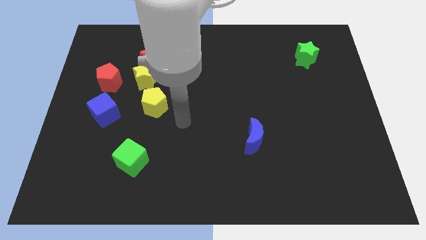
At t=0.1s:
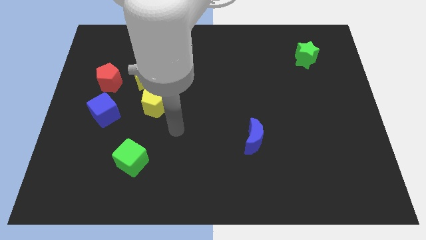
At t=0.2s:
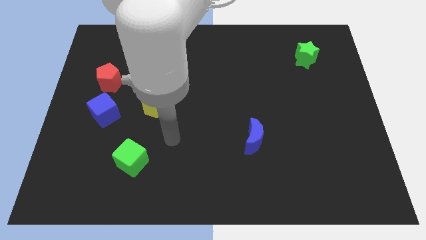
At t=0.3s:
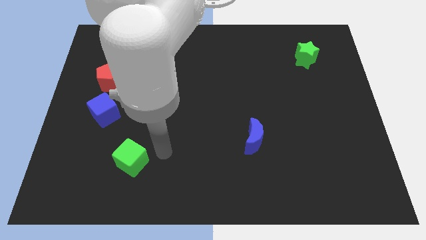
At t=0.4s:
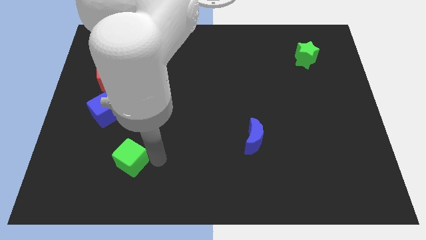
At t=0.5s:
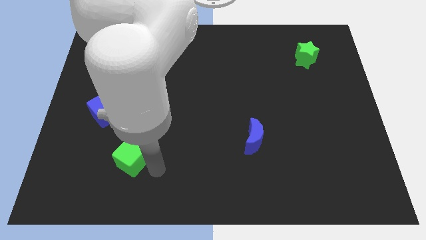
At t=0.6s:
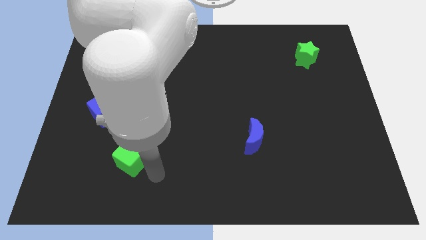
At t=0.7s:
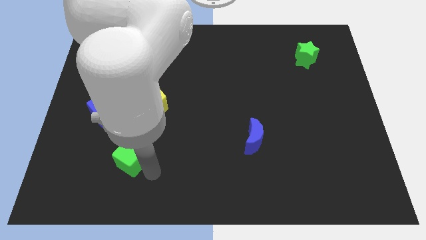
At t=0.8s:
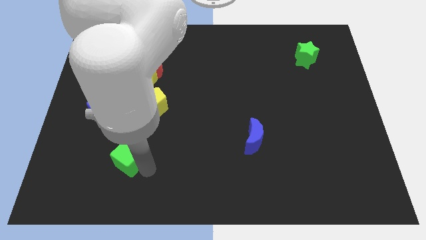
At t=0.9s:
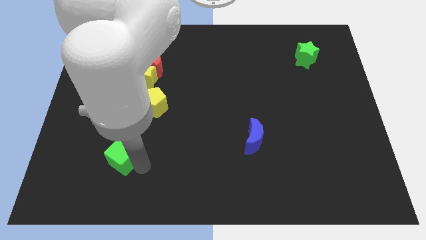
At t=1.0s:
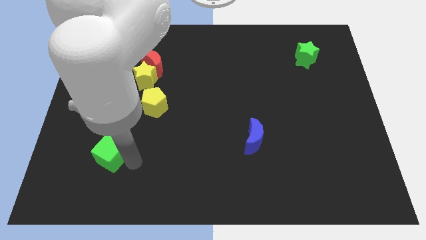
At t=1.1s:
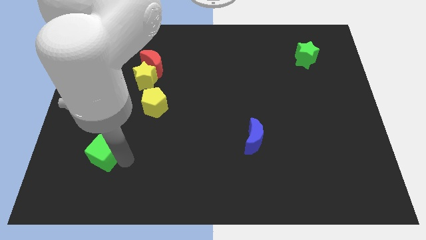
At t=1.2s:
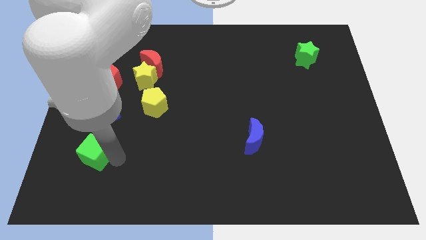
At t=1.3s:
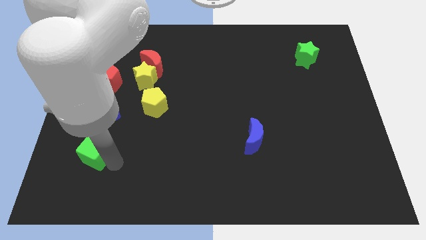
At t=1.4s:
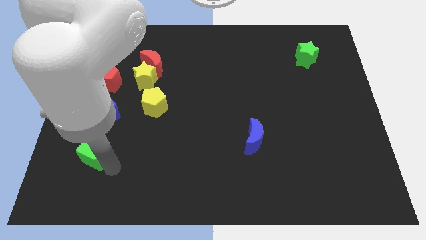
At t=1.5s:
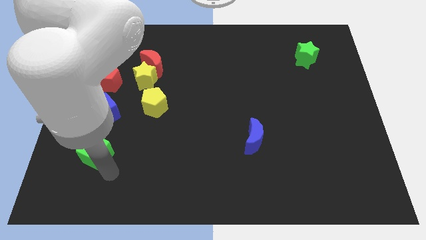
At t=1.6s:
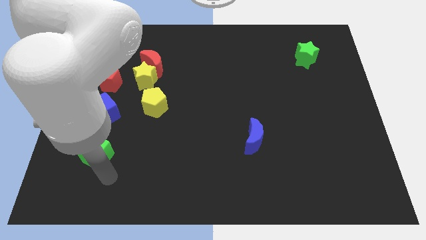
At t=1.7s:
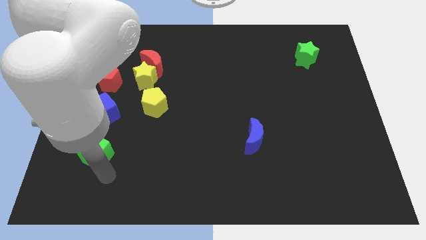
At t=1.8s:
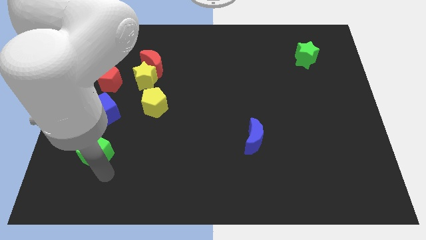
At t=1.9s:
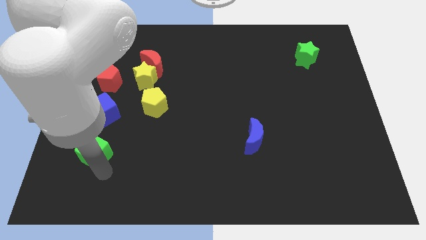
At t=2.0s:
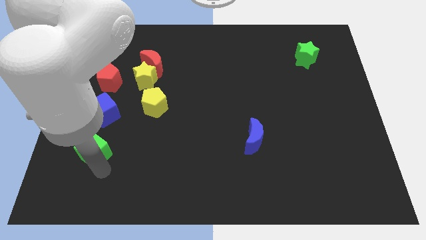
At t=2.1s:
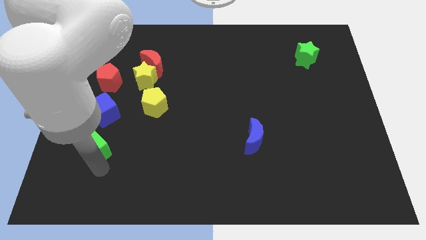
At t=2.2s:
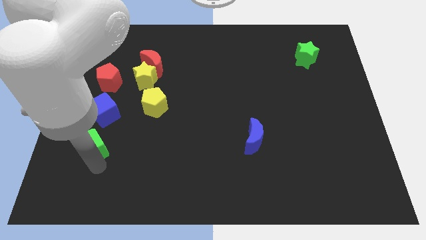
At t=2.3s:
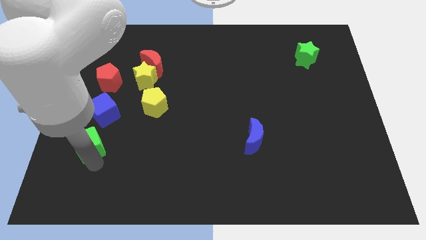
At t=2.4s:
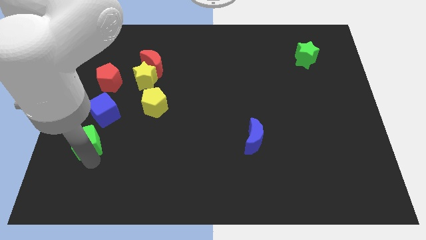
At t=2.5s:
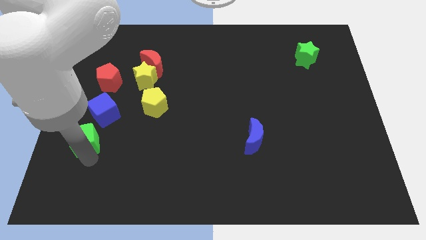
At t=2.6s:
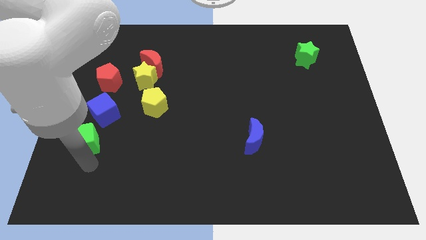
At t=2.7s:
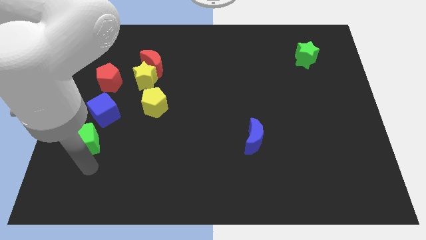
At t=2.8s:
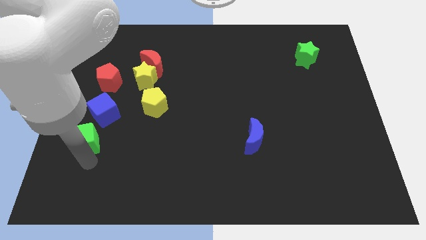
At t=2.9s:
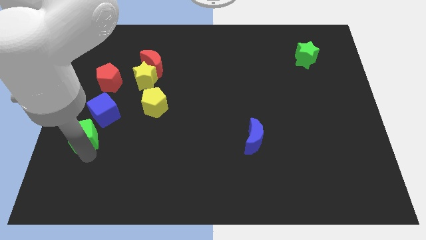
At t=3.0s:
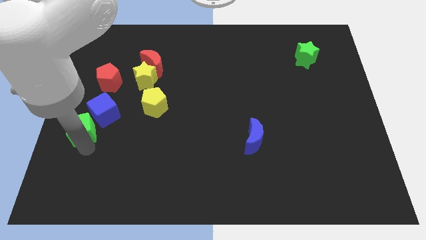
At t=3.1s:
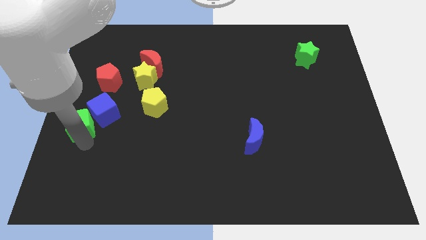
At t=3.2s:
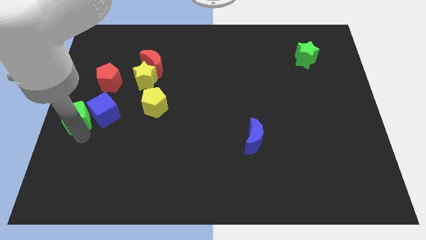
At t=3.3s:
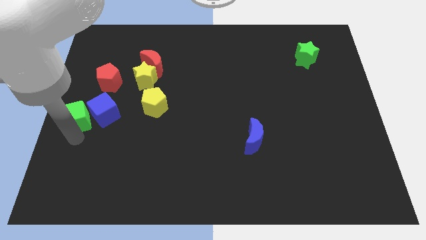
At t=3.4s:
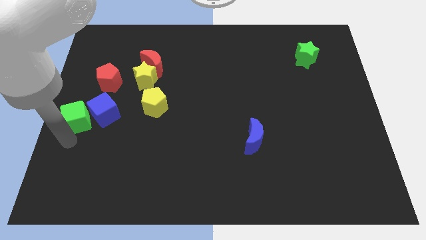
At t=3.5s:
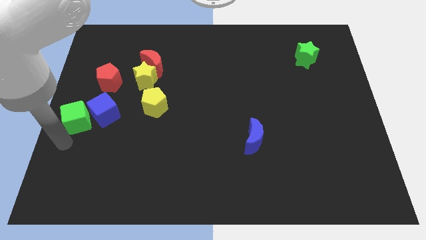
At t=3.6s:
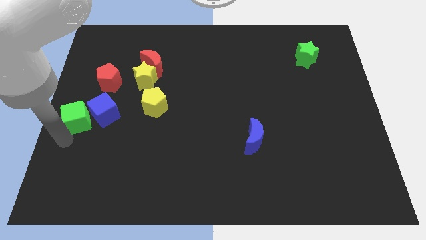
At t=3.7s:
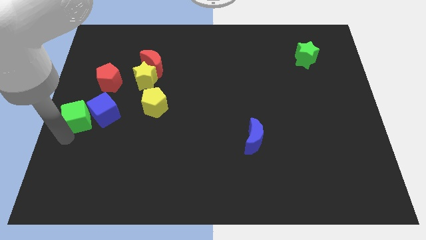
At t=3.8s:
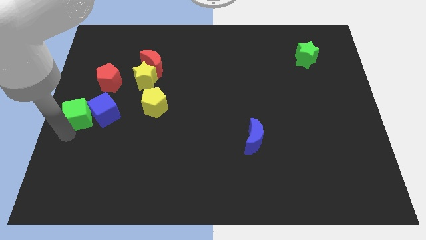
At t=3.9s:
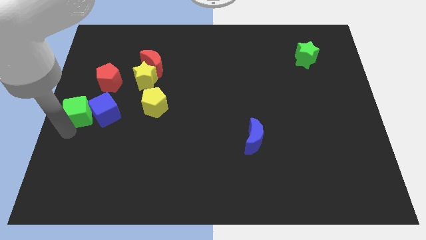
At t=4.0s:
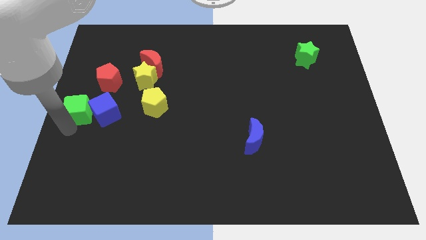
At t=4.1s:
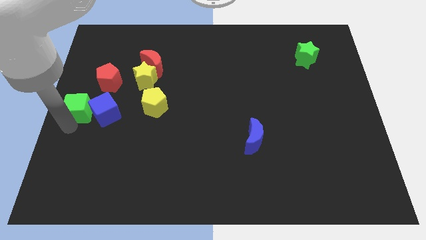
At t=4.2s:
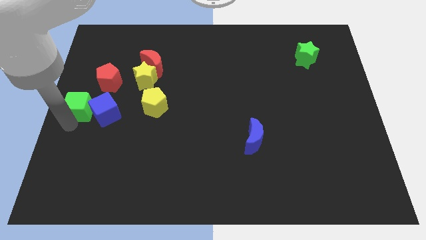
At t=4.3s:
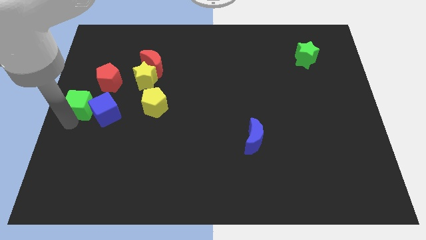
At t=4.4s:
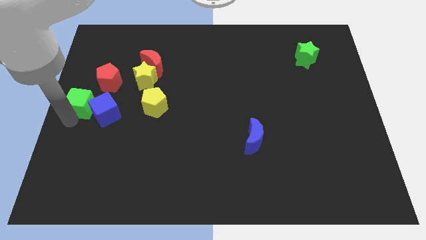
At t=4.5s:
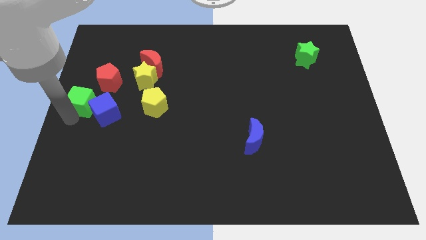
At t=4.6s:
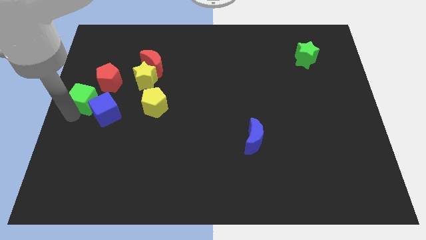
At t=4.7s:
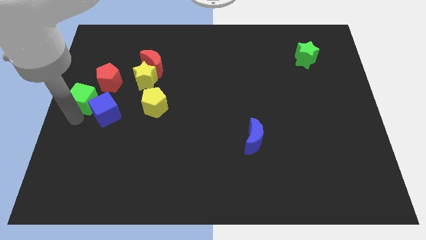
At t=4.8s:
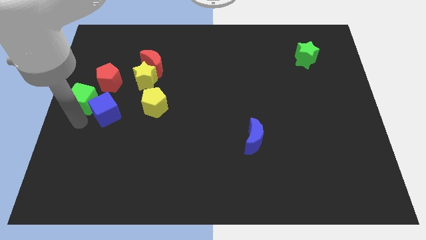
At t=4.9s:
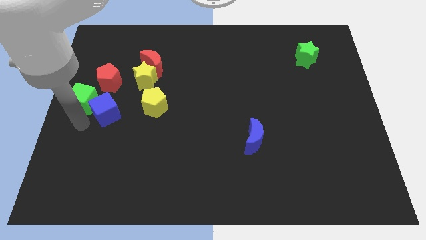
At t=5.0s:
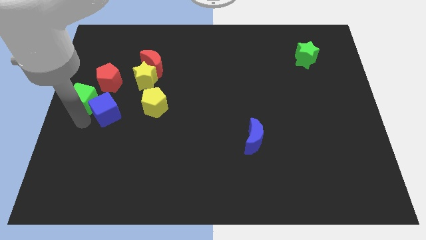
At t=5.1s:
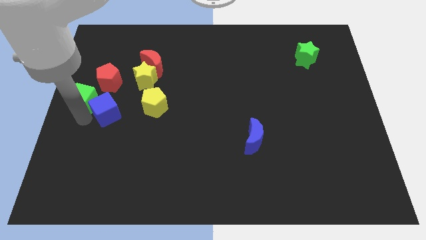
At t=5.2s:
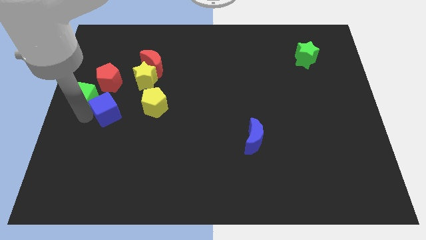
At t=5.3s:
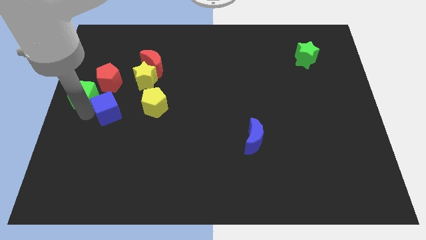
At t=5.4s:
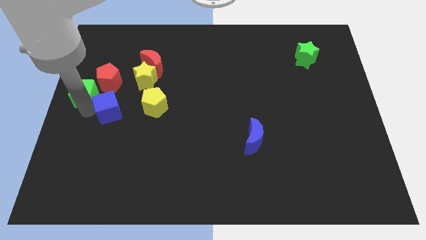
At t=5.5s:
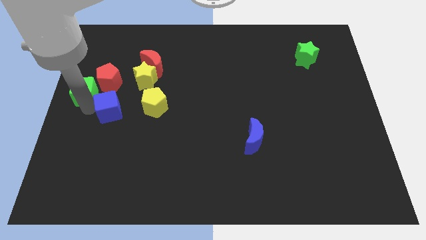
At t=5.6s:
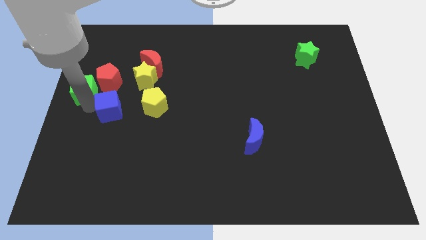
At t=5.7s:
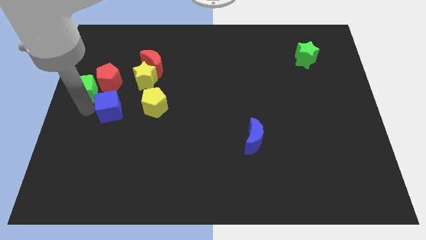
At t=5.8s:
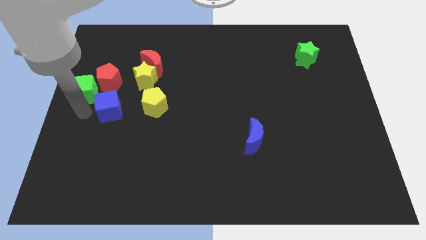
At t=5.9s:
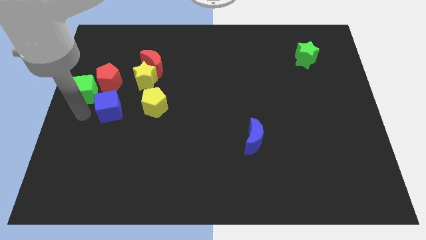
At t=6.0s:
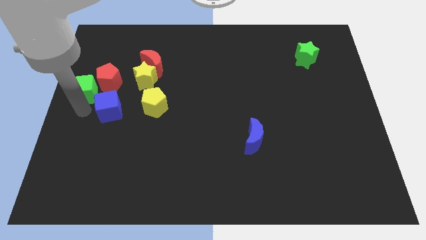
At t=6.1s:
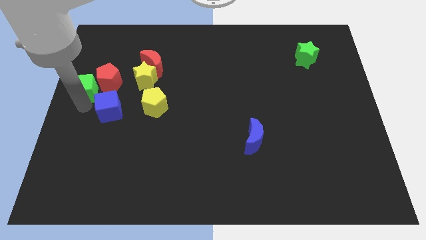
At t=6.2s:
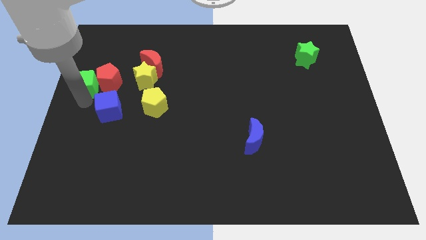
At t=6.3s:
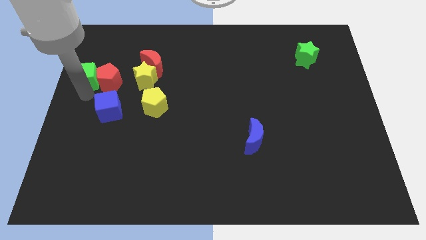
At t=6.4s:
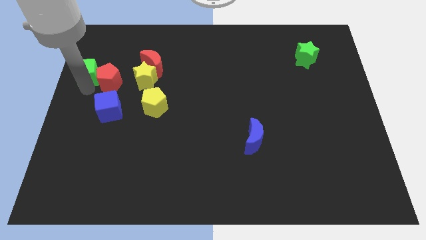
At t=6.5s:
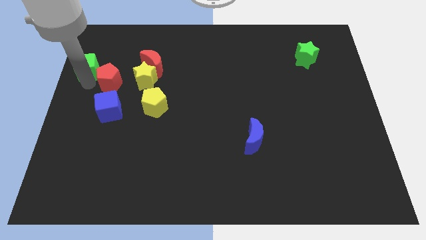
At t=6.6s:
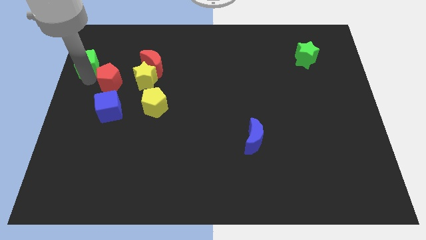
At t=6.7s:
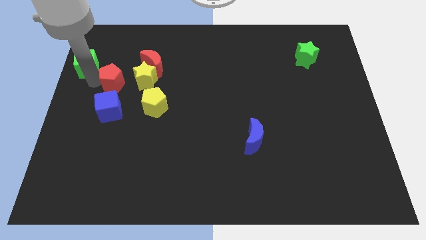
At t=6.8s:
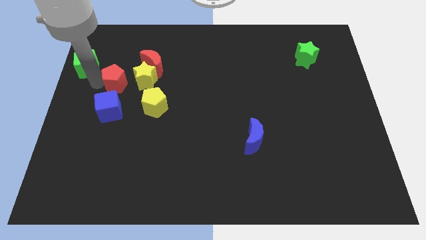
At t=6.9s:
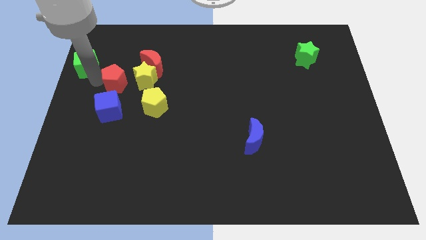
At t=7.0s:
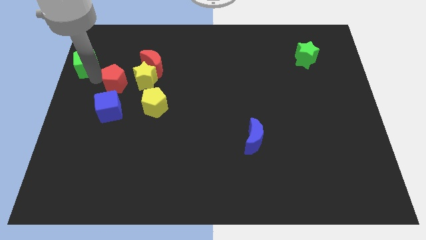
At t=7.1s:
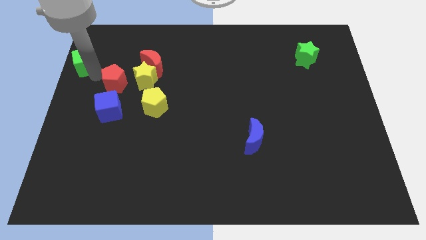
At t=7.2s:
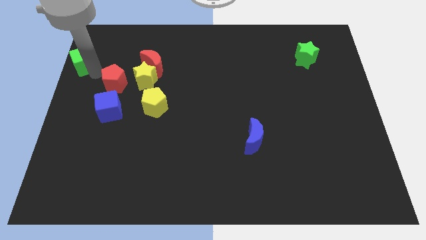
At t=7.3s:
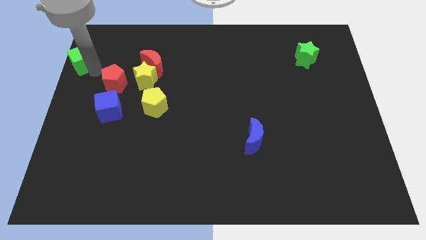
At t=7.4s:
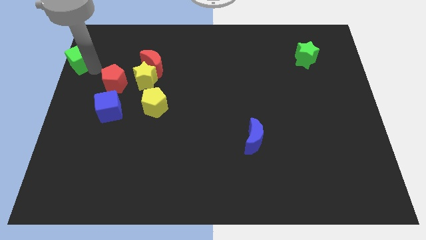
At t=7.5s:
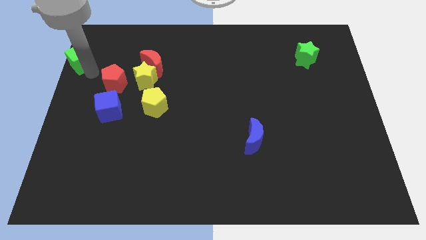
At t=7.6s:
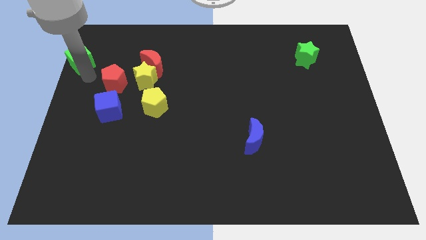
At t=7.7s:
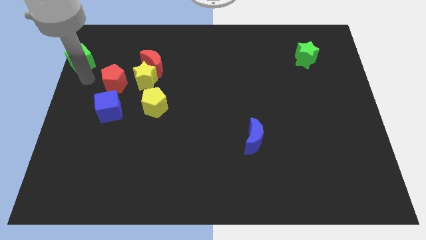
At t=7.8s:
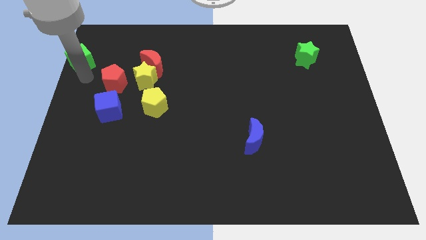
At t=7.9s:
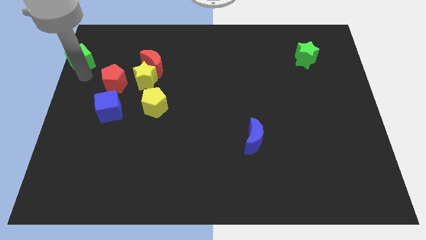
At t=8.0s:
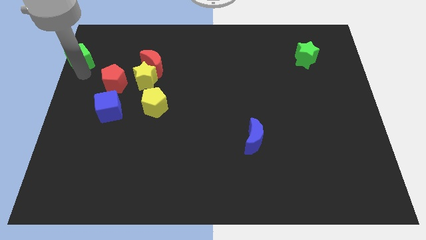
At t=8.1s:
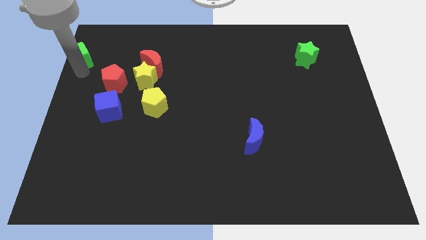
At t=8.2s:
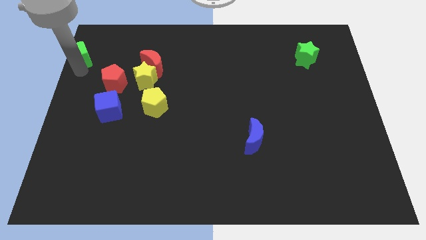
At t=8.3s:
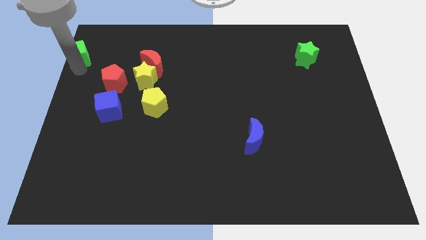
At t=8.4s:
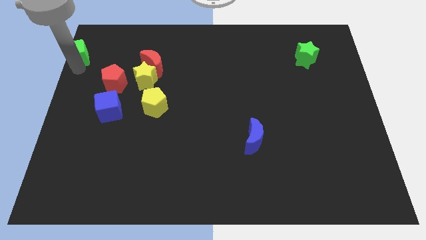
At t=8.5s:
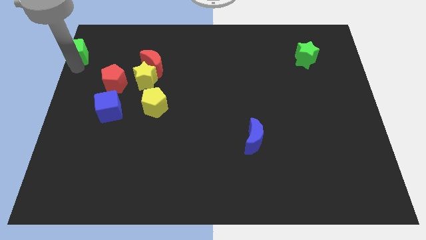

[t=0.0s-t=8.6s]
push the green cube to the top left corner
